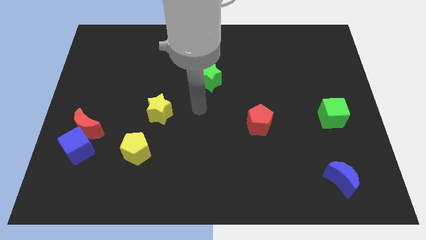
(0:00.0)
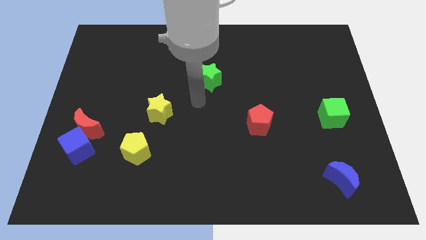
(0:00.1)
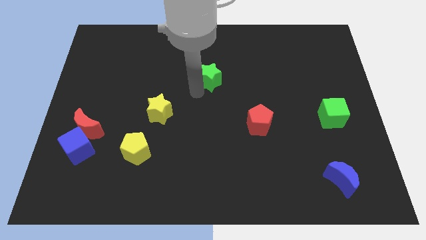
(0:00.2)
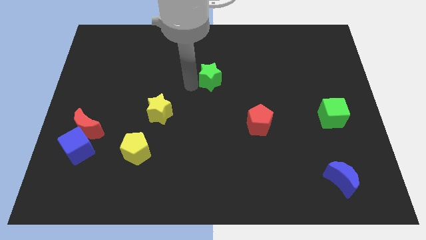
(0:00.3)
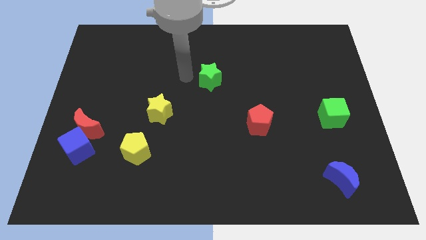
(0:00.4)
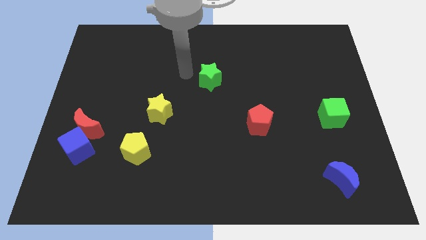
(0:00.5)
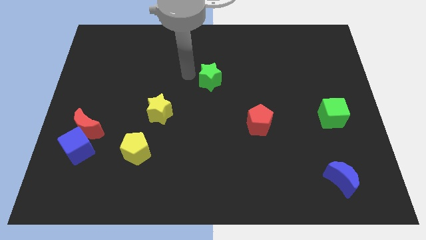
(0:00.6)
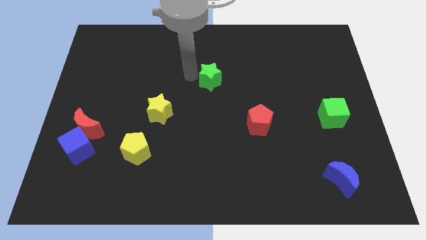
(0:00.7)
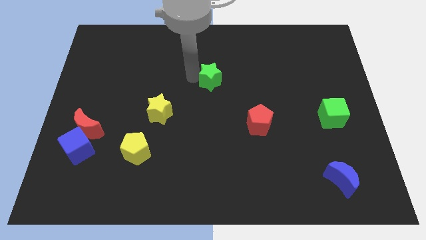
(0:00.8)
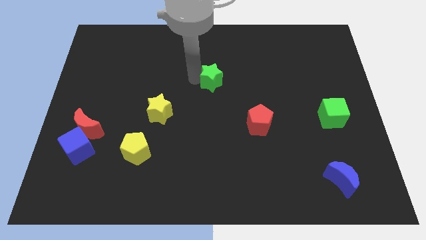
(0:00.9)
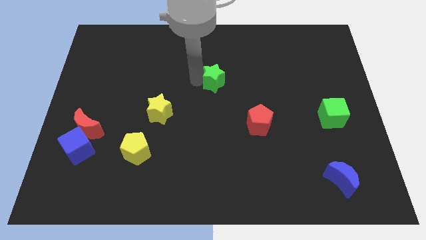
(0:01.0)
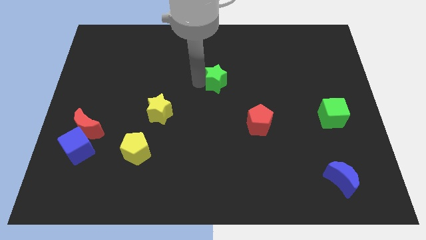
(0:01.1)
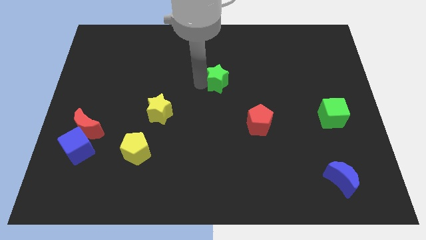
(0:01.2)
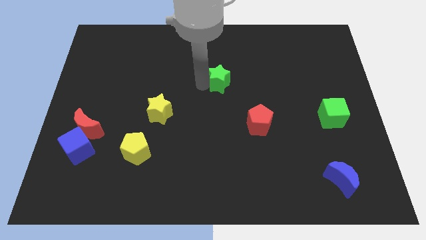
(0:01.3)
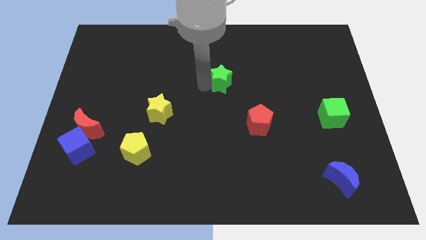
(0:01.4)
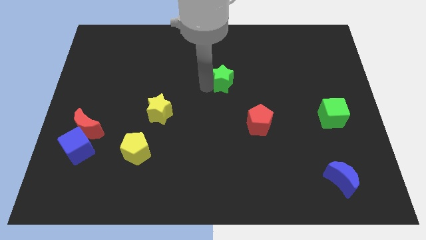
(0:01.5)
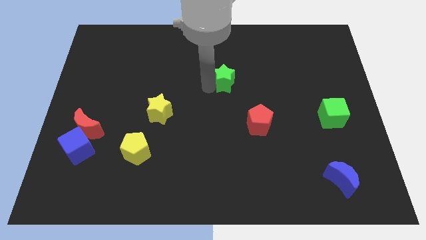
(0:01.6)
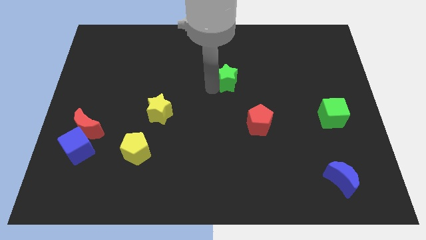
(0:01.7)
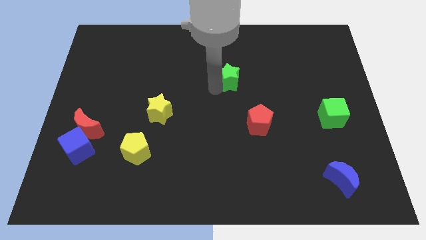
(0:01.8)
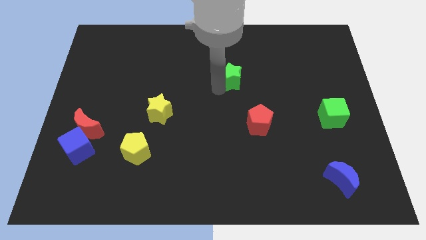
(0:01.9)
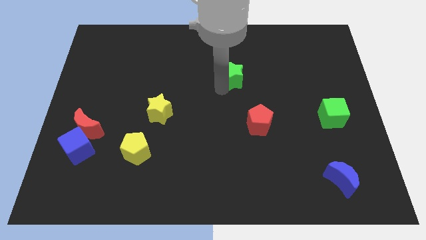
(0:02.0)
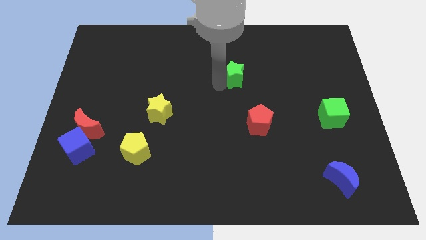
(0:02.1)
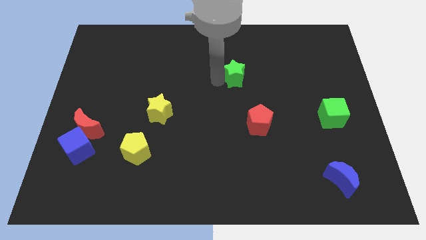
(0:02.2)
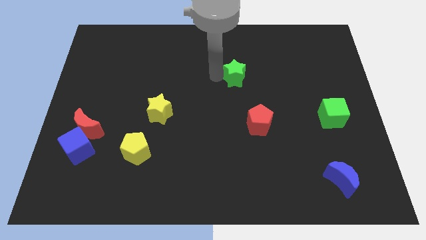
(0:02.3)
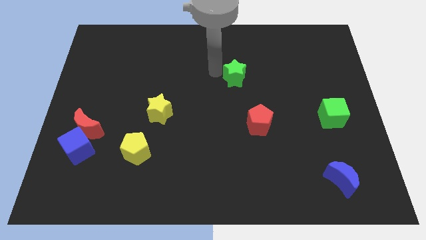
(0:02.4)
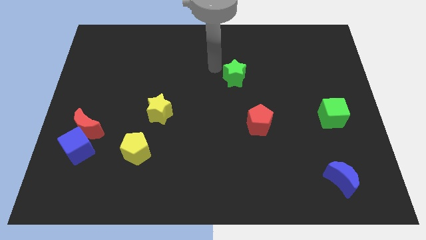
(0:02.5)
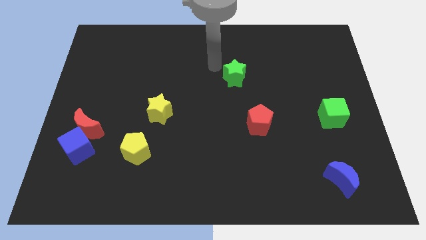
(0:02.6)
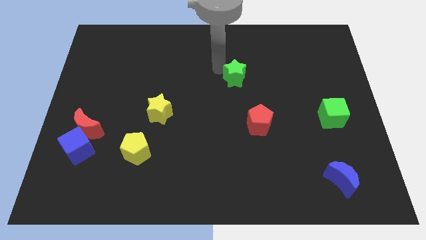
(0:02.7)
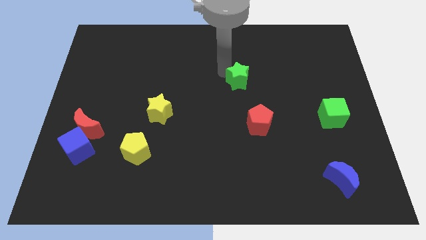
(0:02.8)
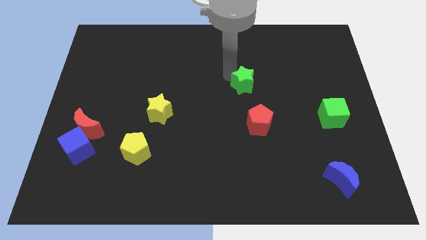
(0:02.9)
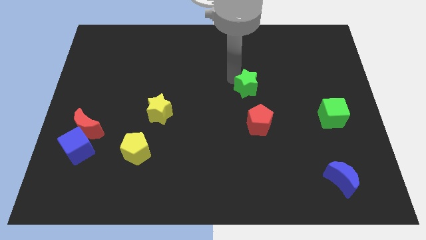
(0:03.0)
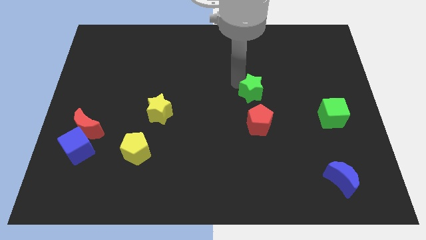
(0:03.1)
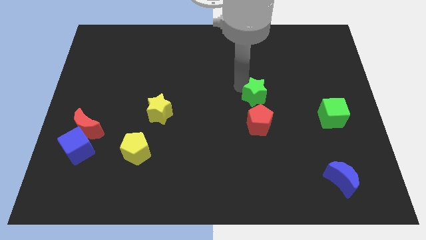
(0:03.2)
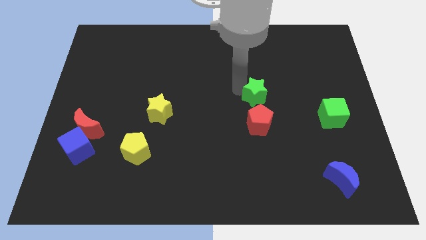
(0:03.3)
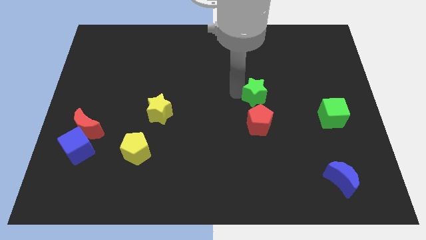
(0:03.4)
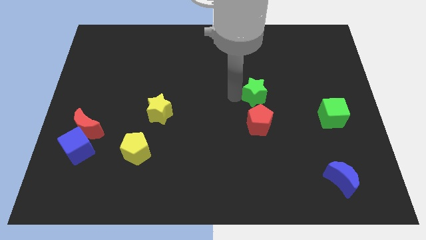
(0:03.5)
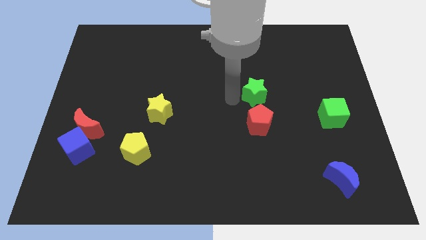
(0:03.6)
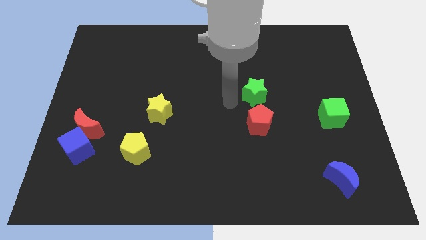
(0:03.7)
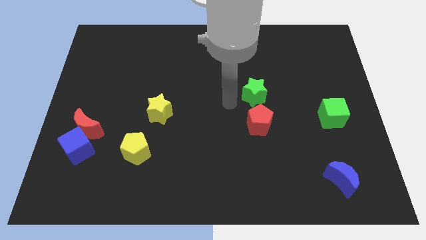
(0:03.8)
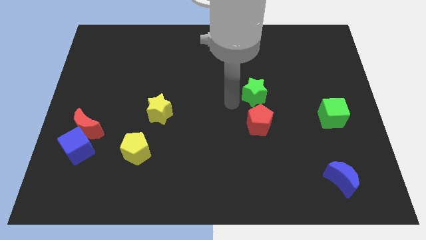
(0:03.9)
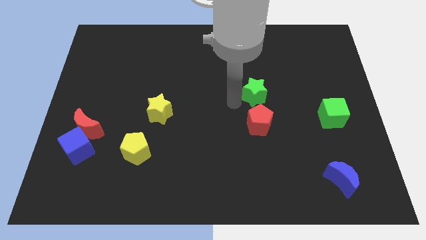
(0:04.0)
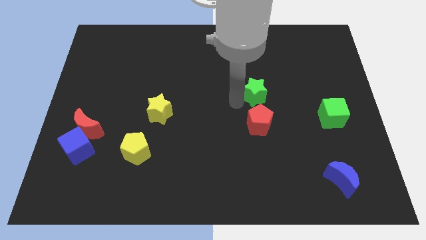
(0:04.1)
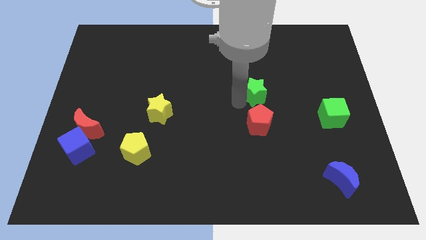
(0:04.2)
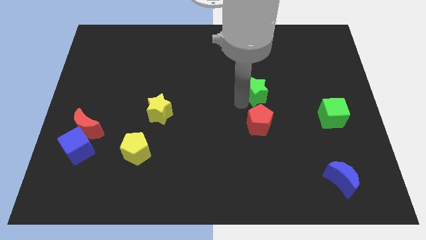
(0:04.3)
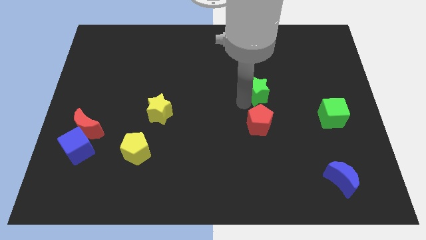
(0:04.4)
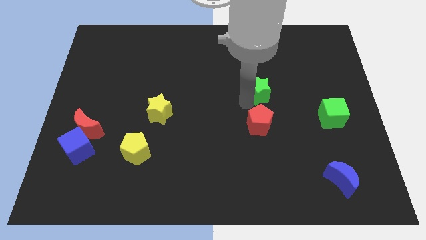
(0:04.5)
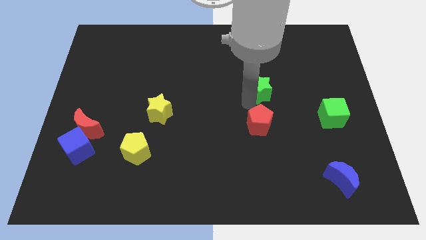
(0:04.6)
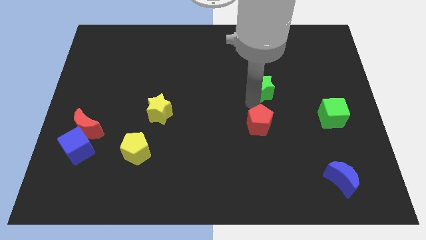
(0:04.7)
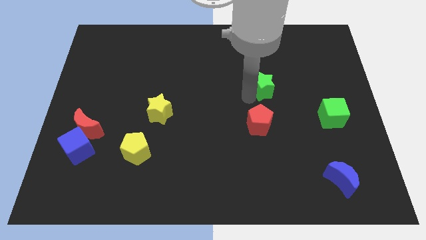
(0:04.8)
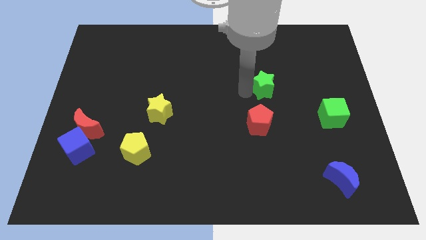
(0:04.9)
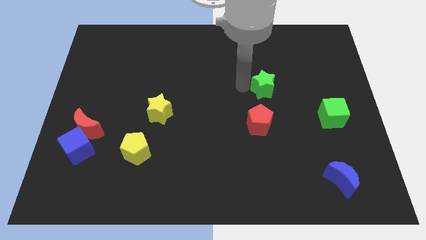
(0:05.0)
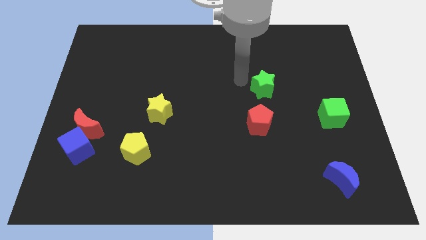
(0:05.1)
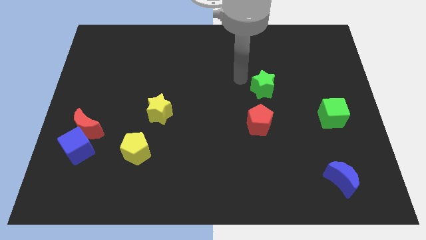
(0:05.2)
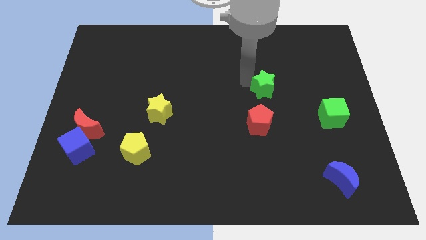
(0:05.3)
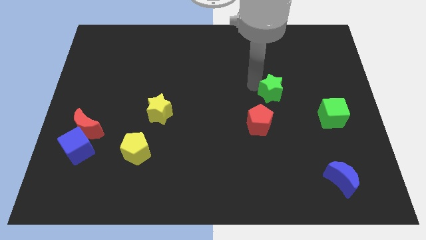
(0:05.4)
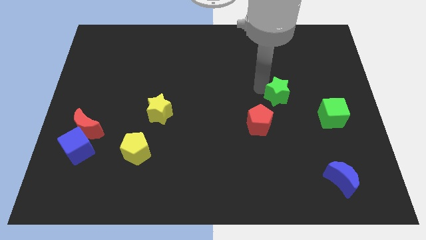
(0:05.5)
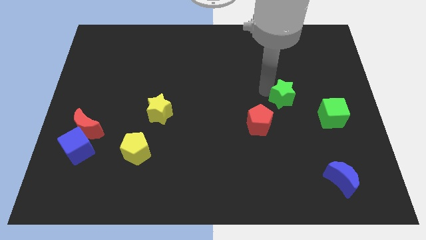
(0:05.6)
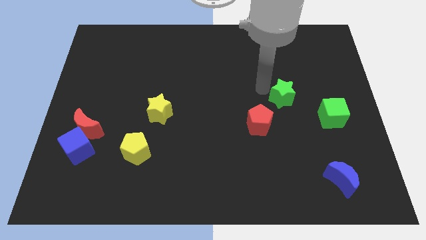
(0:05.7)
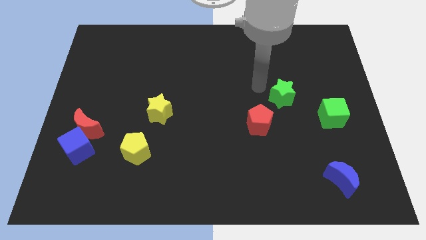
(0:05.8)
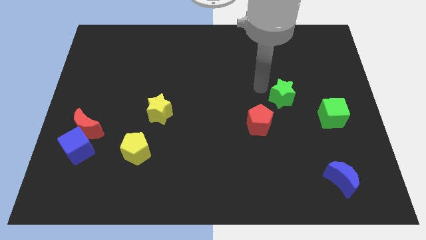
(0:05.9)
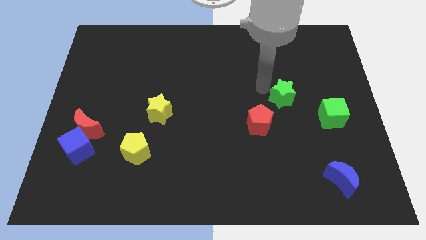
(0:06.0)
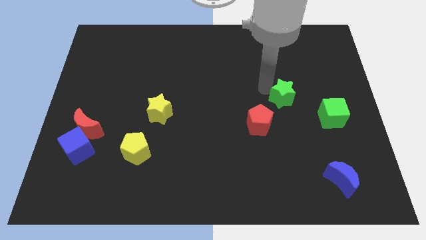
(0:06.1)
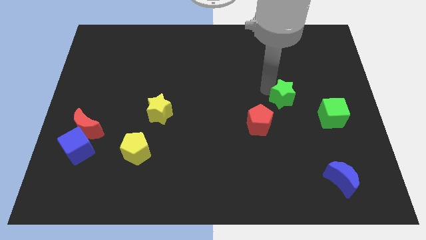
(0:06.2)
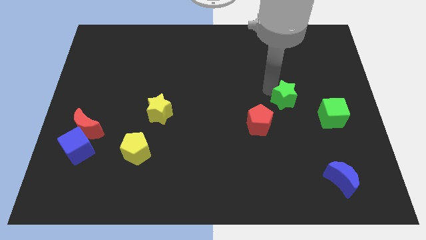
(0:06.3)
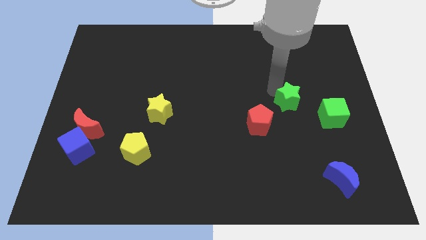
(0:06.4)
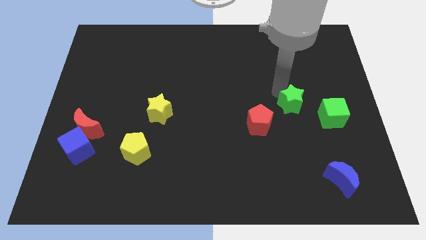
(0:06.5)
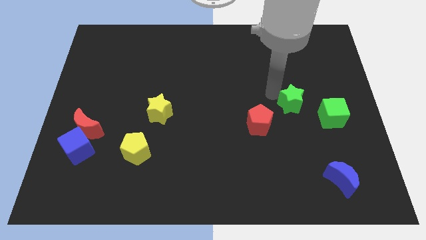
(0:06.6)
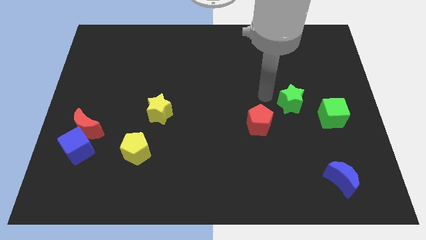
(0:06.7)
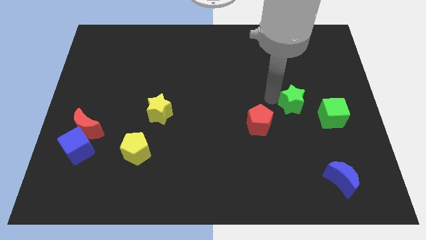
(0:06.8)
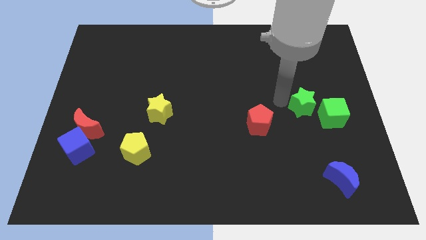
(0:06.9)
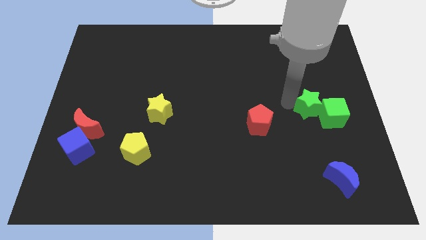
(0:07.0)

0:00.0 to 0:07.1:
put the green star next to the green cube

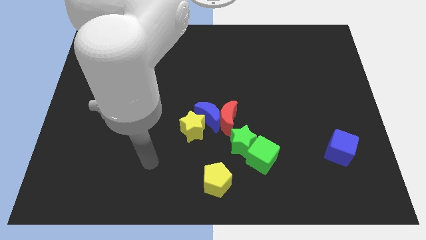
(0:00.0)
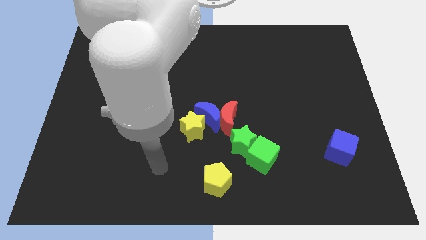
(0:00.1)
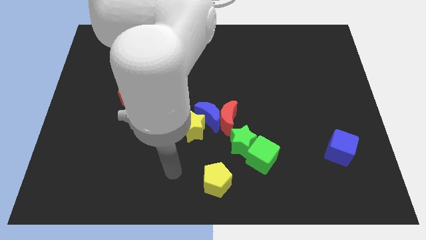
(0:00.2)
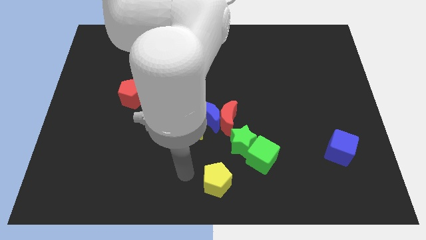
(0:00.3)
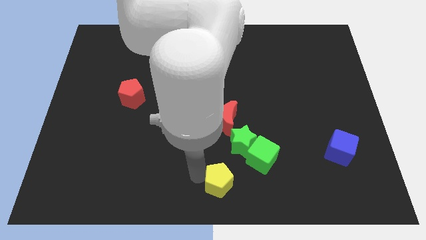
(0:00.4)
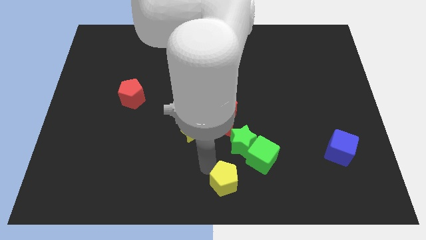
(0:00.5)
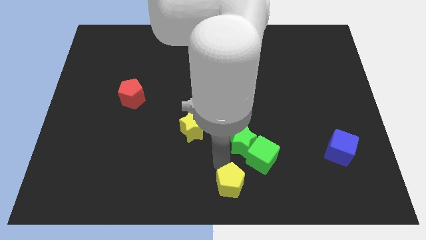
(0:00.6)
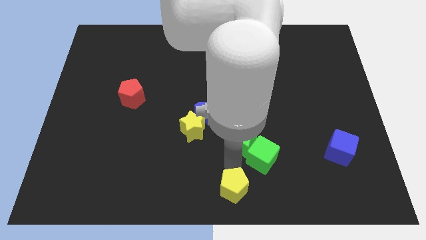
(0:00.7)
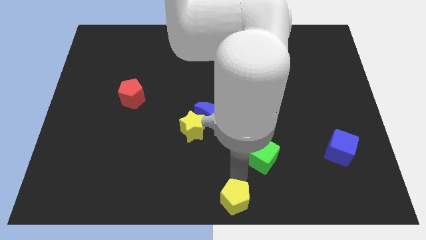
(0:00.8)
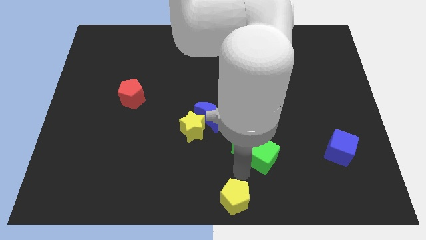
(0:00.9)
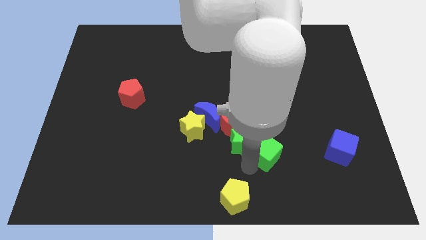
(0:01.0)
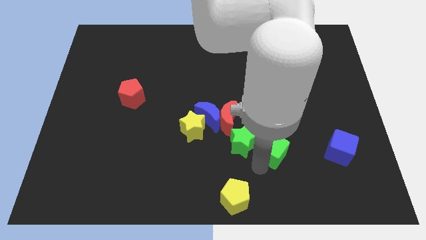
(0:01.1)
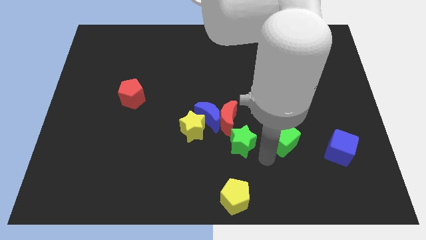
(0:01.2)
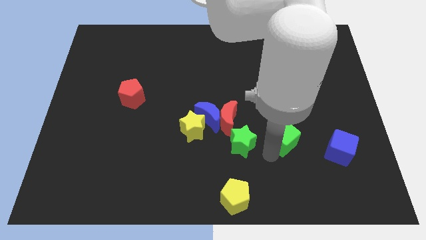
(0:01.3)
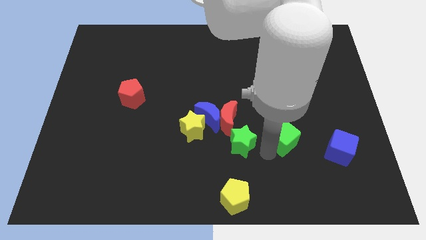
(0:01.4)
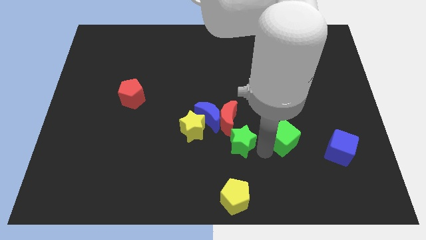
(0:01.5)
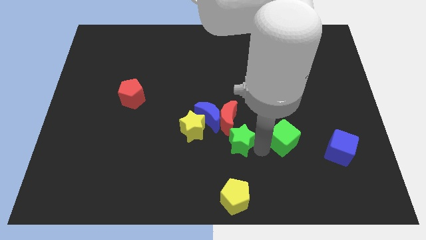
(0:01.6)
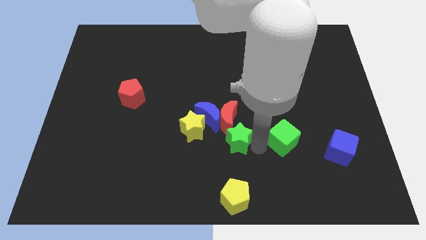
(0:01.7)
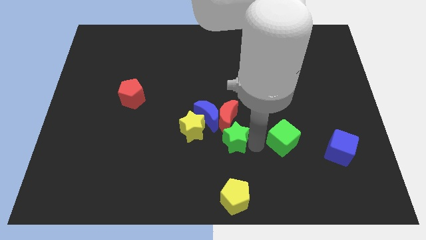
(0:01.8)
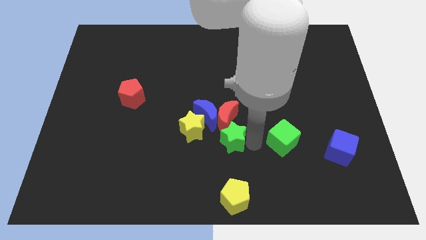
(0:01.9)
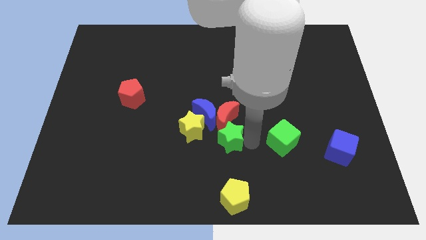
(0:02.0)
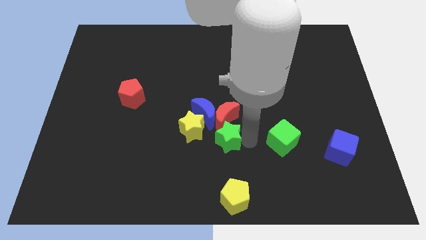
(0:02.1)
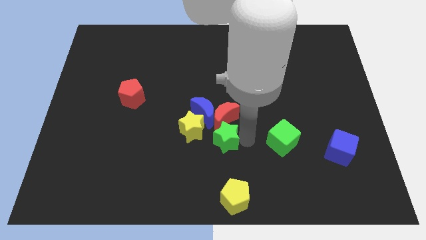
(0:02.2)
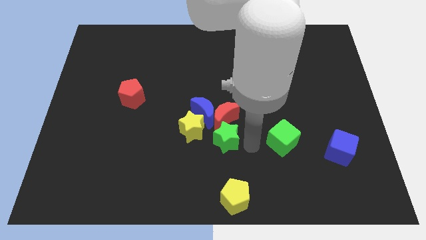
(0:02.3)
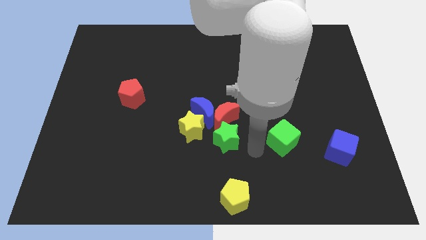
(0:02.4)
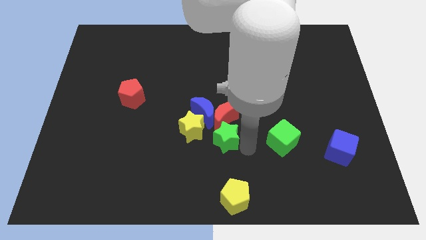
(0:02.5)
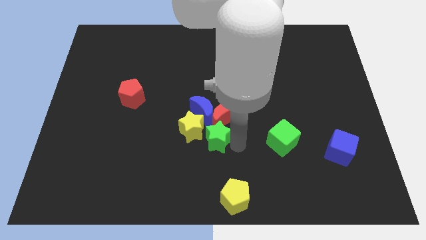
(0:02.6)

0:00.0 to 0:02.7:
move the green star close to the yellow star
